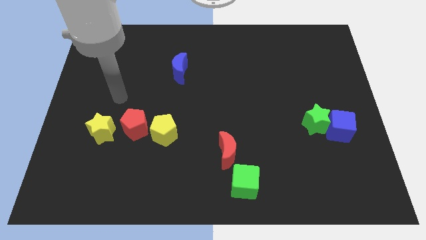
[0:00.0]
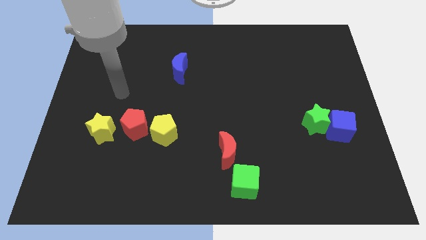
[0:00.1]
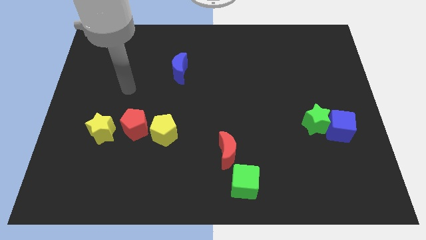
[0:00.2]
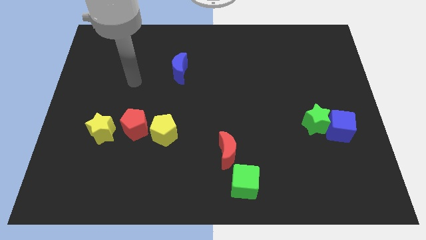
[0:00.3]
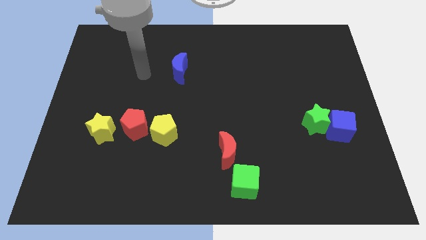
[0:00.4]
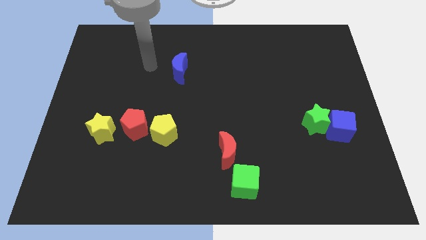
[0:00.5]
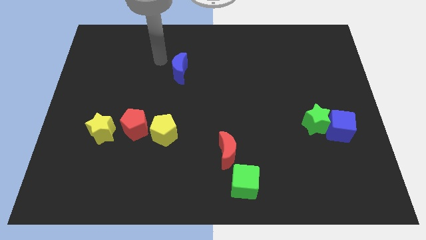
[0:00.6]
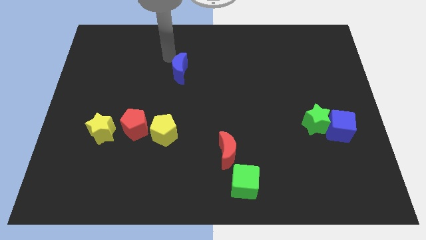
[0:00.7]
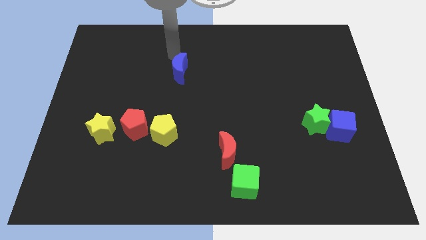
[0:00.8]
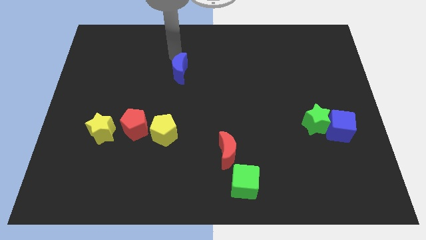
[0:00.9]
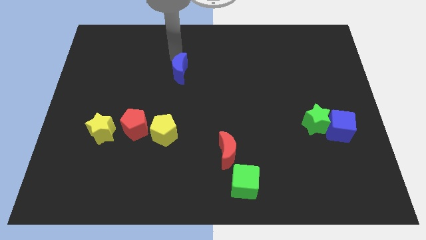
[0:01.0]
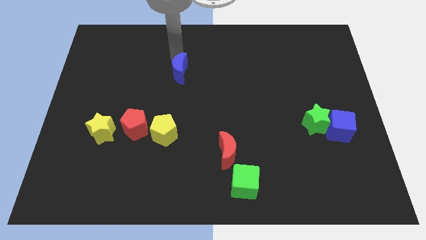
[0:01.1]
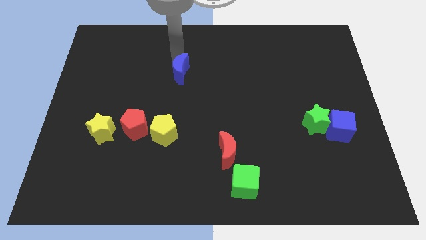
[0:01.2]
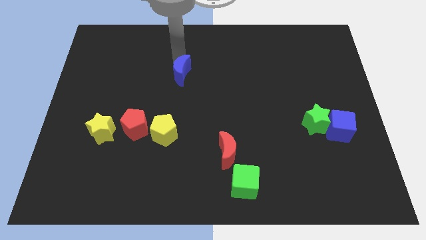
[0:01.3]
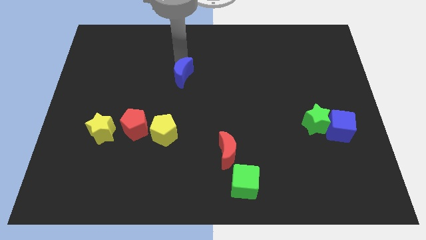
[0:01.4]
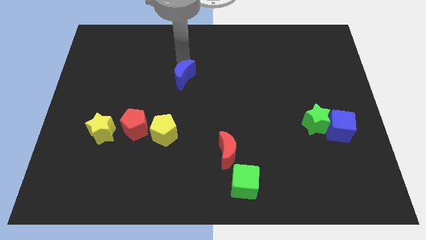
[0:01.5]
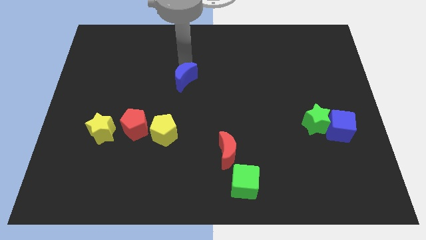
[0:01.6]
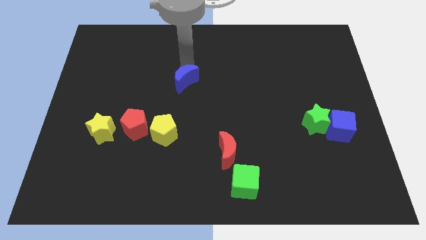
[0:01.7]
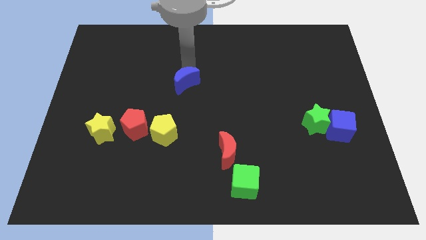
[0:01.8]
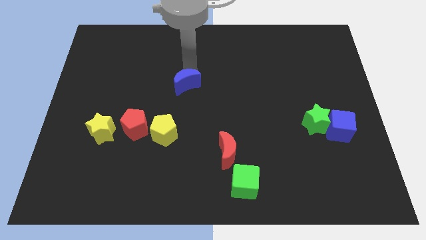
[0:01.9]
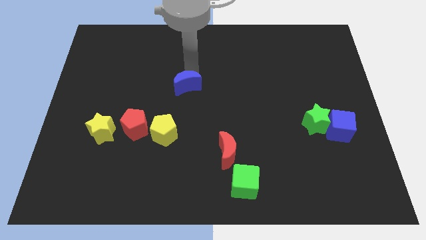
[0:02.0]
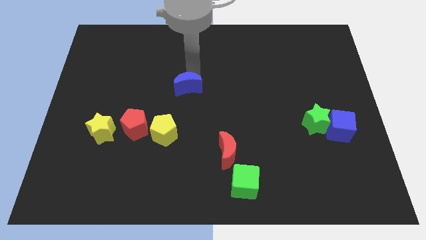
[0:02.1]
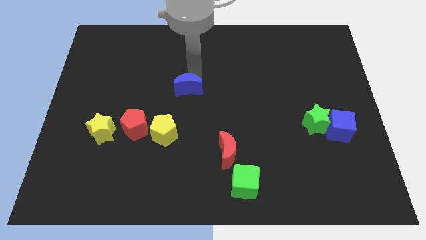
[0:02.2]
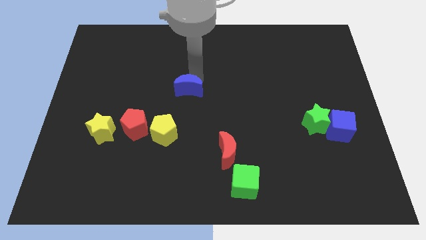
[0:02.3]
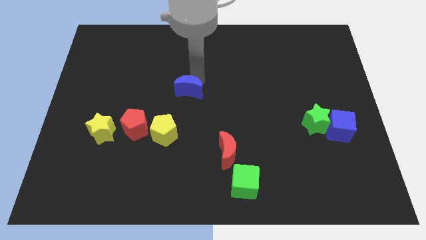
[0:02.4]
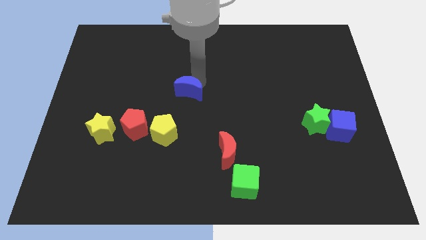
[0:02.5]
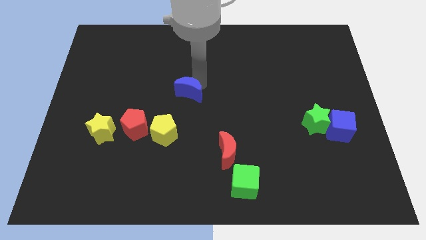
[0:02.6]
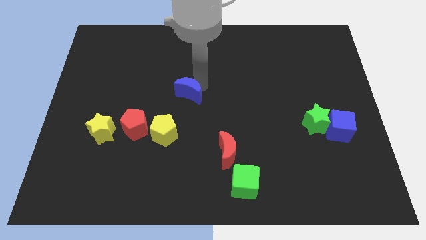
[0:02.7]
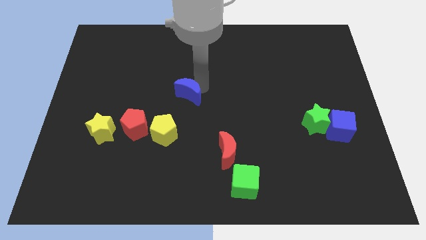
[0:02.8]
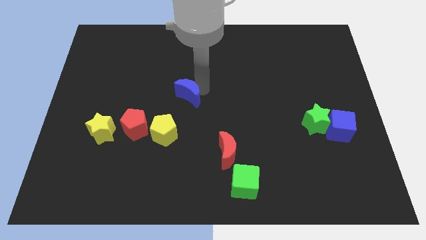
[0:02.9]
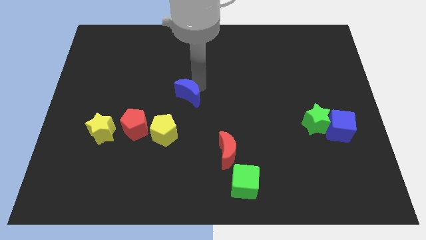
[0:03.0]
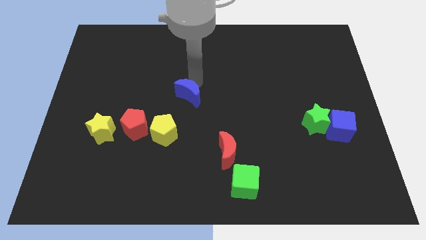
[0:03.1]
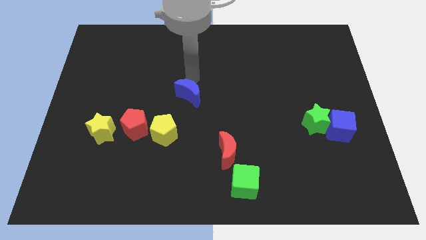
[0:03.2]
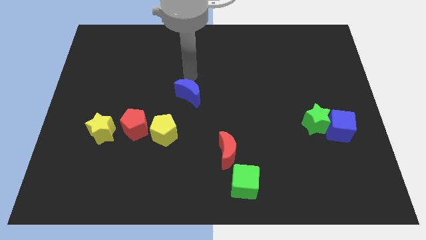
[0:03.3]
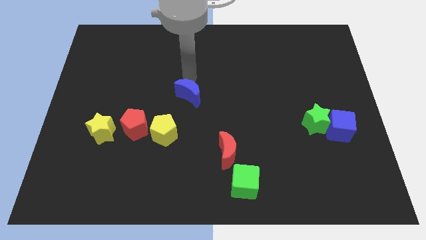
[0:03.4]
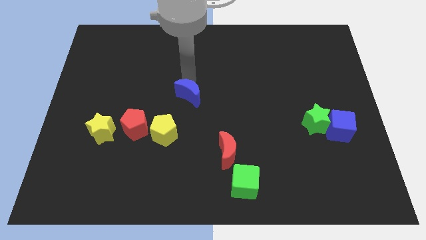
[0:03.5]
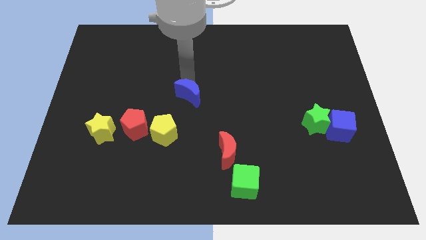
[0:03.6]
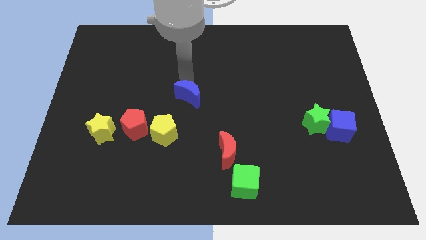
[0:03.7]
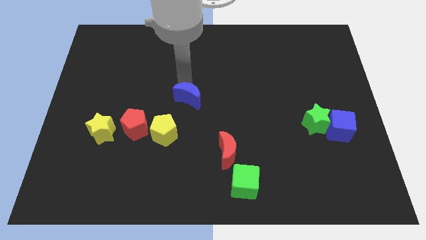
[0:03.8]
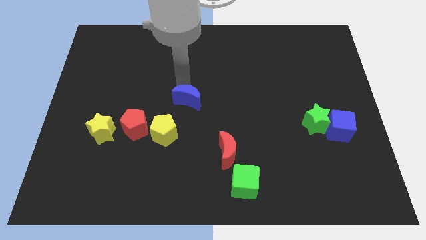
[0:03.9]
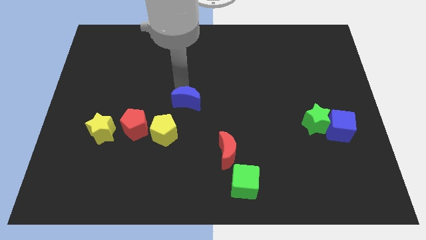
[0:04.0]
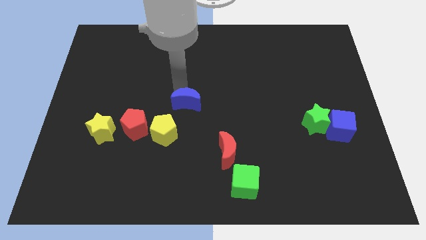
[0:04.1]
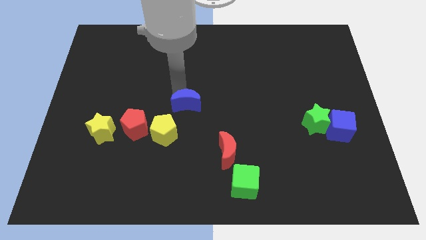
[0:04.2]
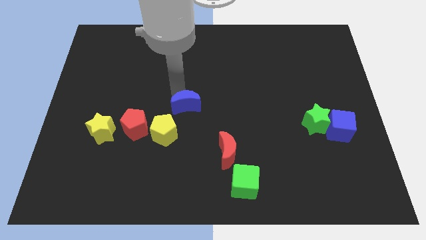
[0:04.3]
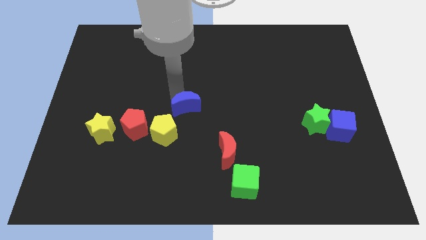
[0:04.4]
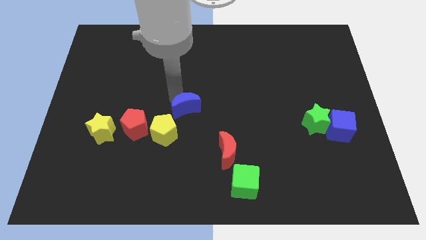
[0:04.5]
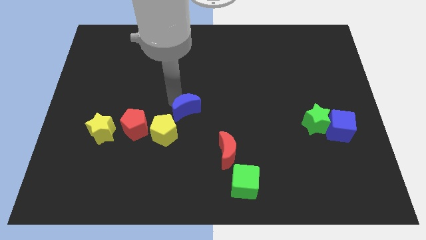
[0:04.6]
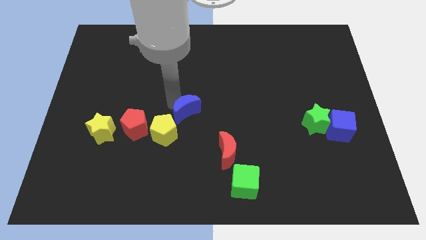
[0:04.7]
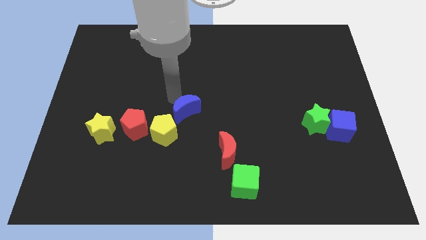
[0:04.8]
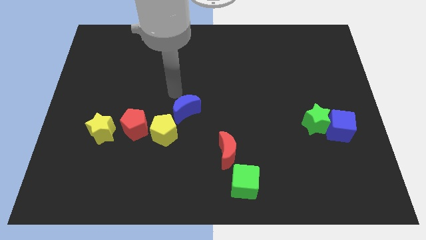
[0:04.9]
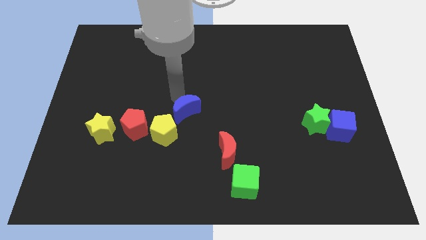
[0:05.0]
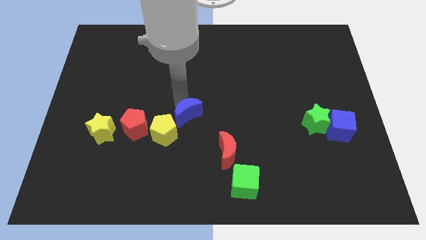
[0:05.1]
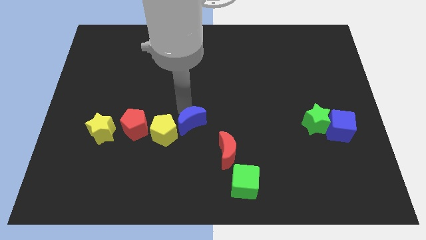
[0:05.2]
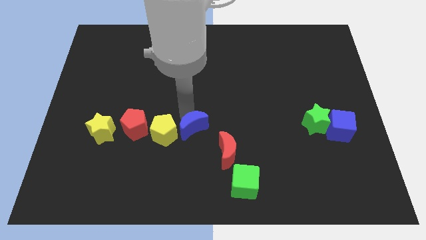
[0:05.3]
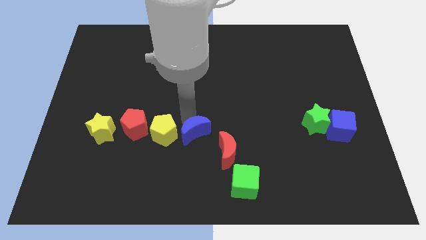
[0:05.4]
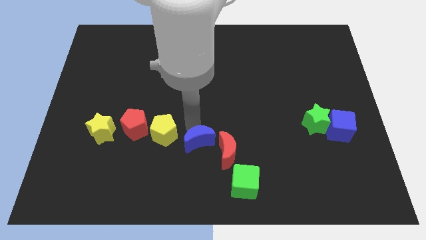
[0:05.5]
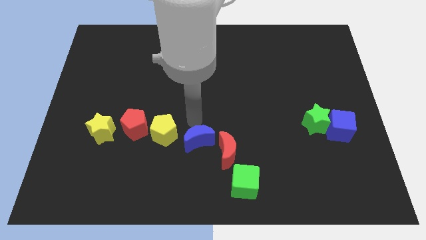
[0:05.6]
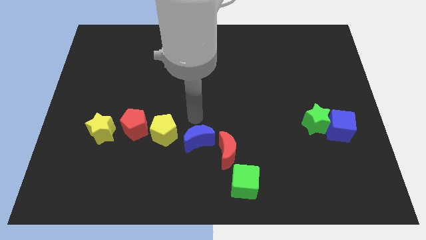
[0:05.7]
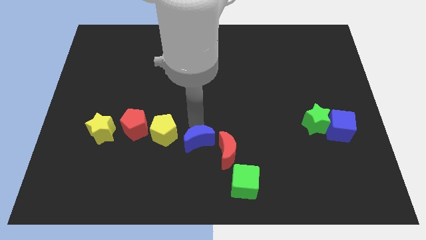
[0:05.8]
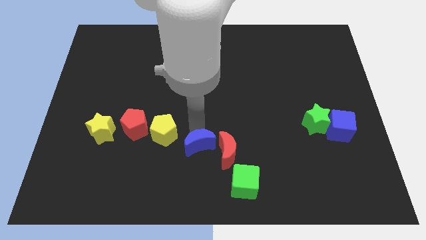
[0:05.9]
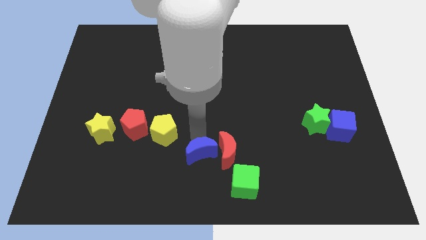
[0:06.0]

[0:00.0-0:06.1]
move the blue moon to the bottom left side of the red moon
